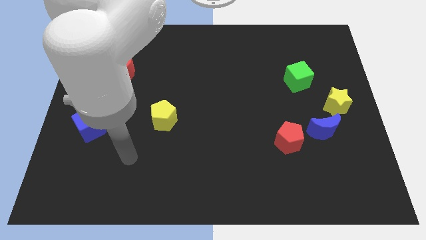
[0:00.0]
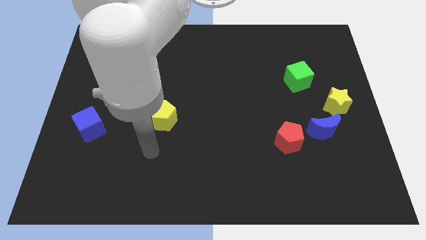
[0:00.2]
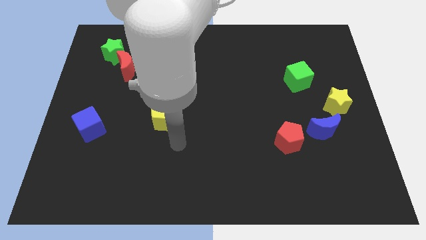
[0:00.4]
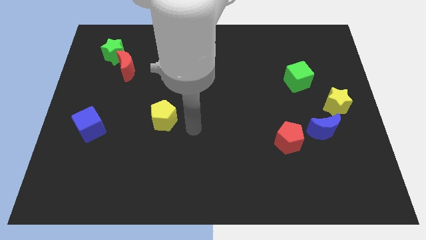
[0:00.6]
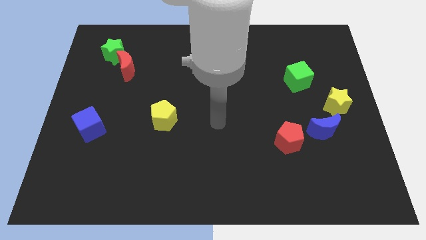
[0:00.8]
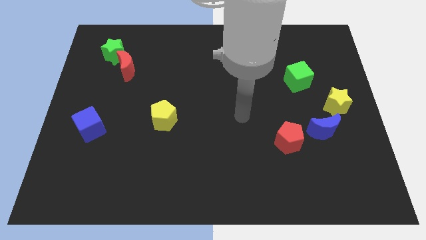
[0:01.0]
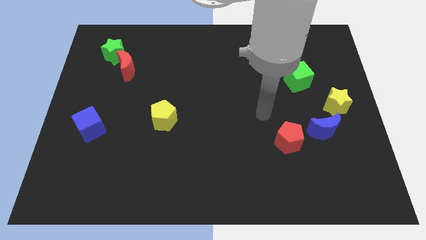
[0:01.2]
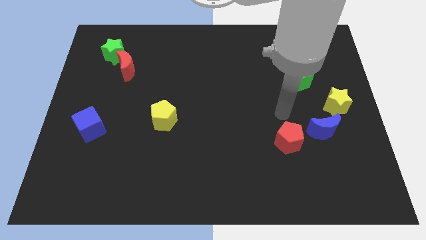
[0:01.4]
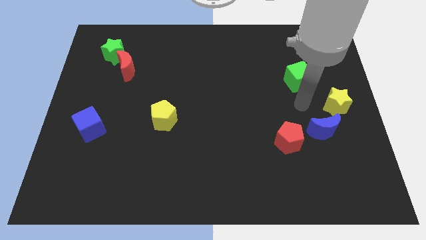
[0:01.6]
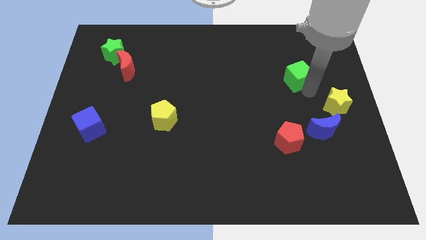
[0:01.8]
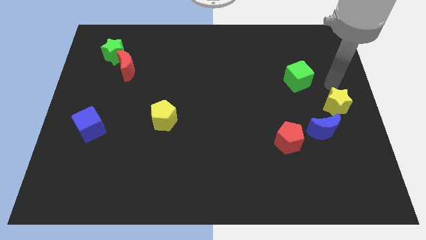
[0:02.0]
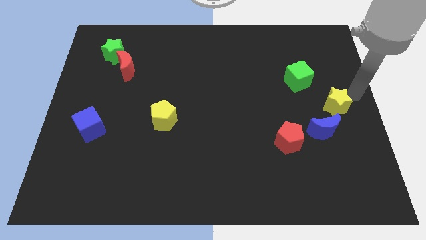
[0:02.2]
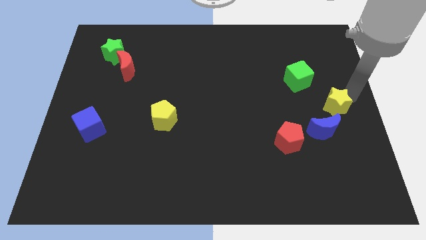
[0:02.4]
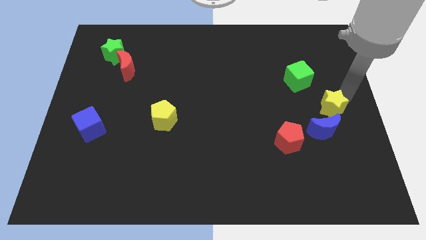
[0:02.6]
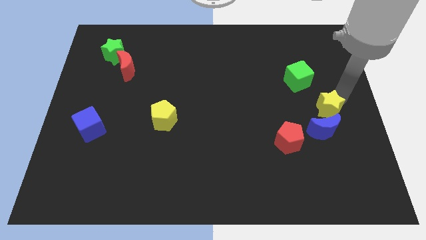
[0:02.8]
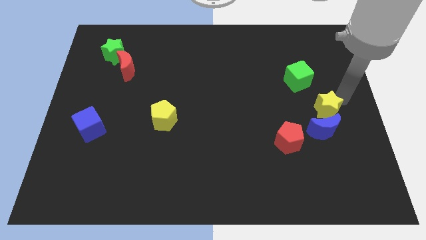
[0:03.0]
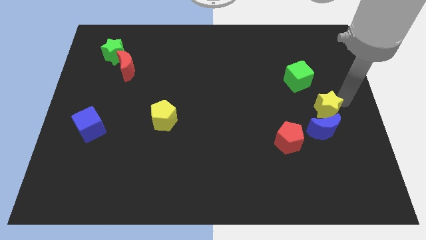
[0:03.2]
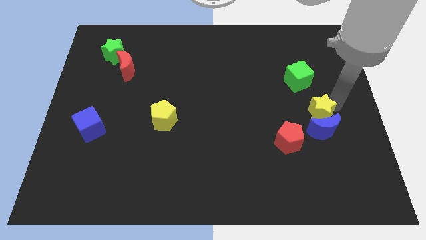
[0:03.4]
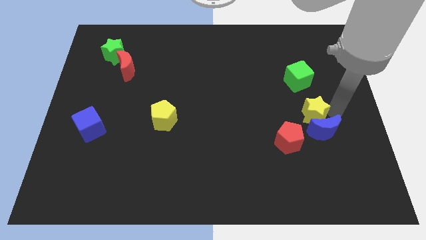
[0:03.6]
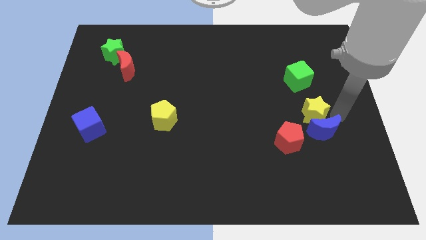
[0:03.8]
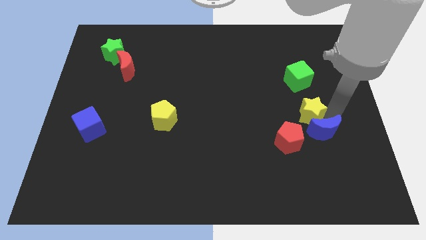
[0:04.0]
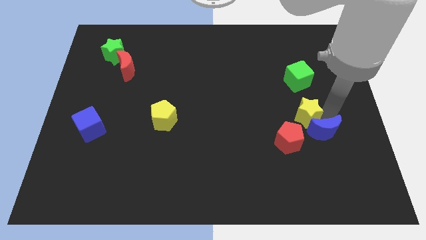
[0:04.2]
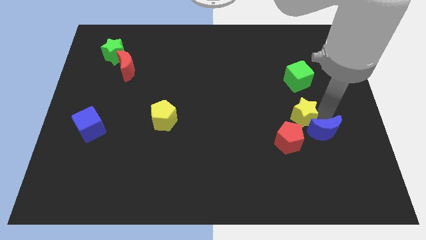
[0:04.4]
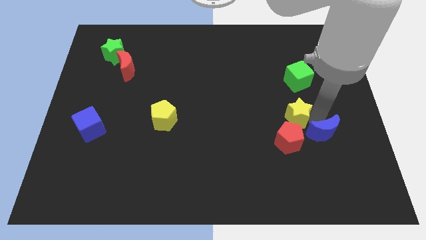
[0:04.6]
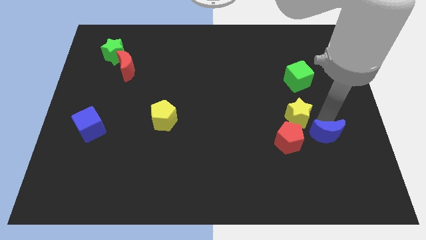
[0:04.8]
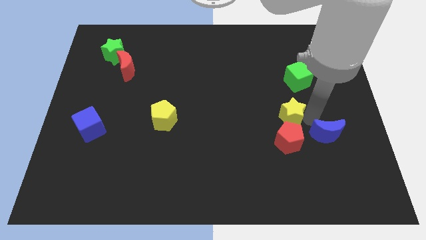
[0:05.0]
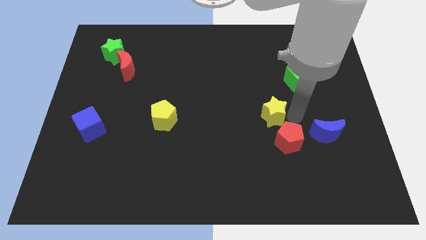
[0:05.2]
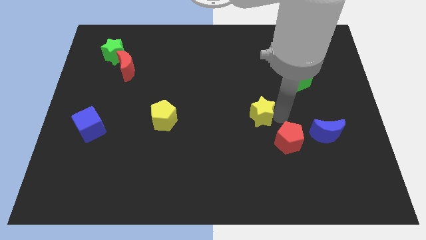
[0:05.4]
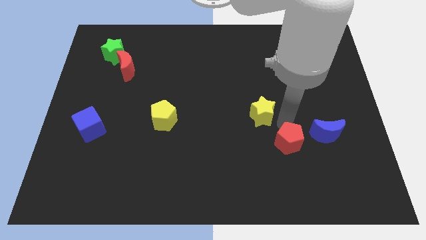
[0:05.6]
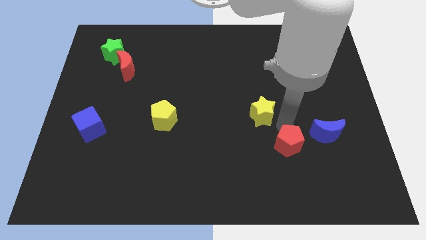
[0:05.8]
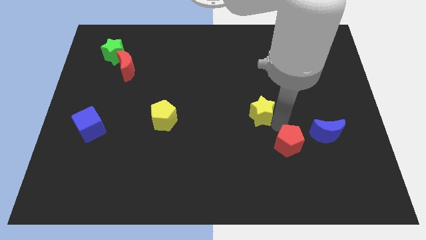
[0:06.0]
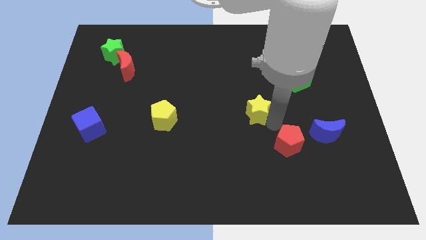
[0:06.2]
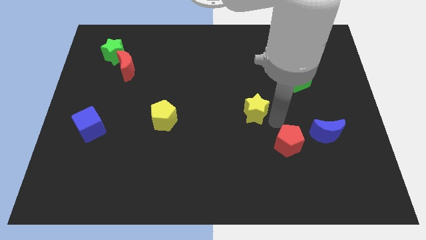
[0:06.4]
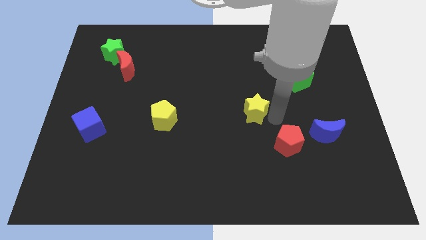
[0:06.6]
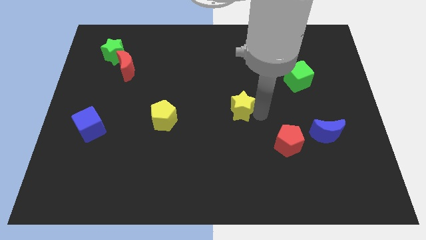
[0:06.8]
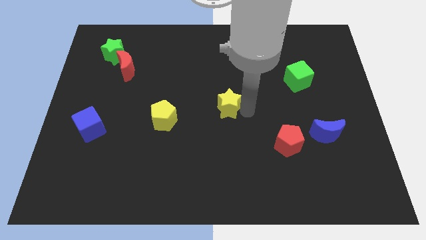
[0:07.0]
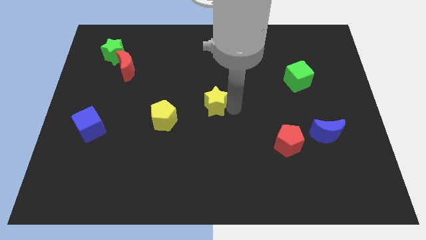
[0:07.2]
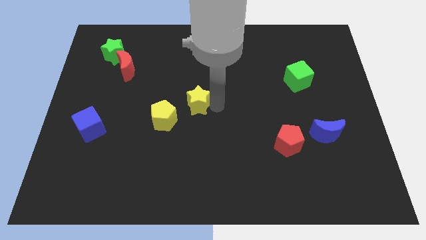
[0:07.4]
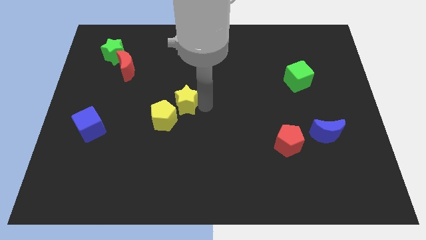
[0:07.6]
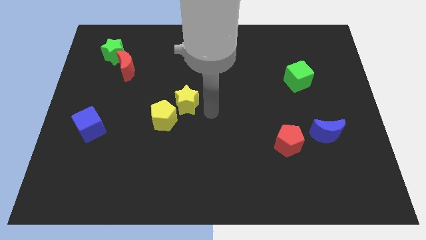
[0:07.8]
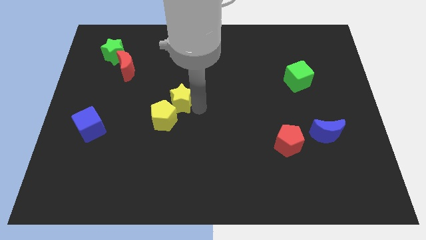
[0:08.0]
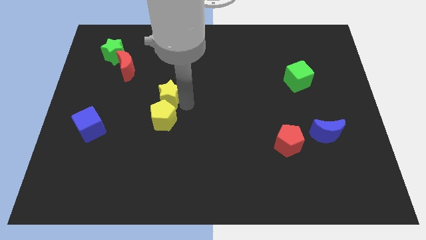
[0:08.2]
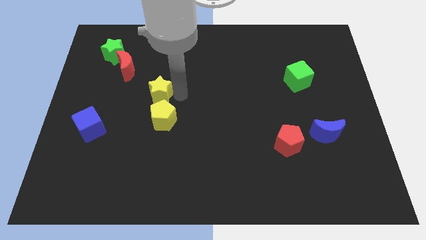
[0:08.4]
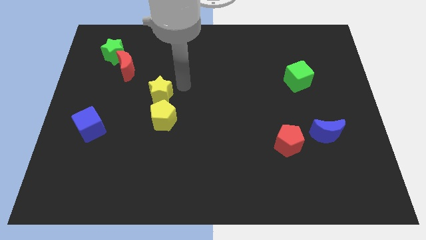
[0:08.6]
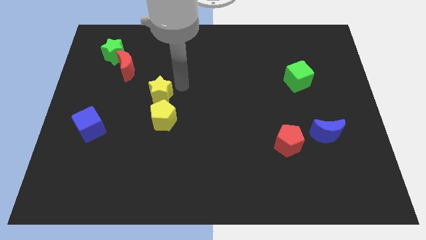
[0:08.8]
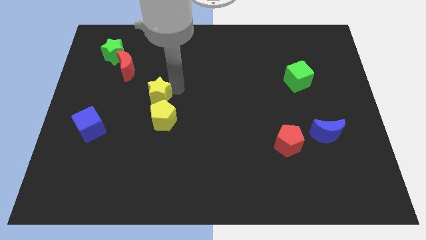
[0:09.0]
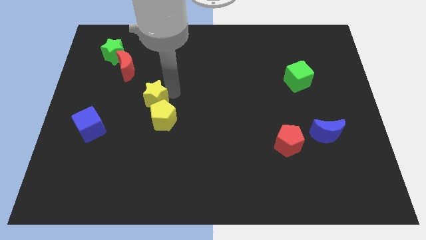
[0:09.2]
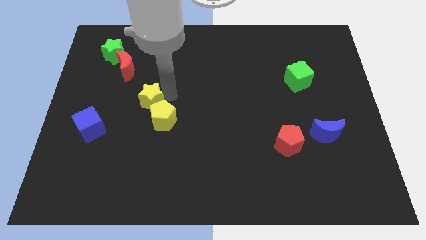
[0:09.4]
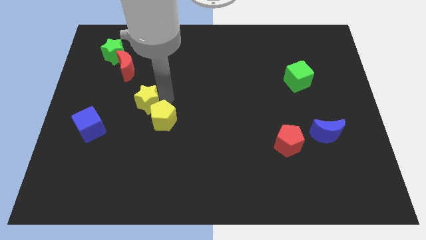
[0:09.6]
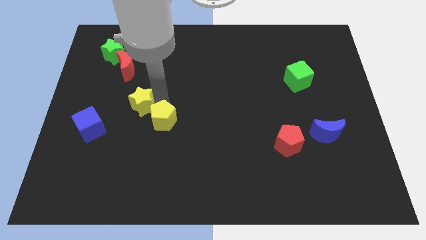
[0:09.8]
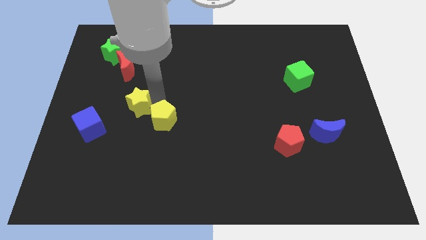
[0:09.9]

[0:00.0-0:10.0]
slide the yellow star to the top right side of the blue cube
